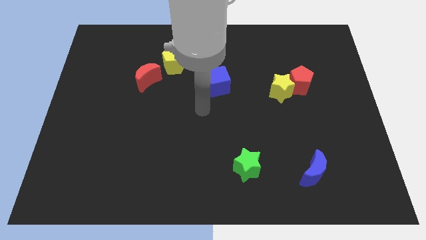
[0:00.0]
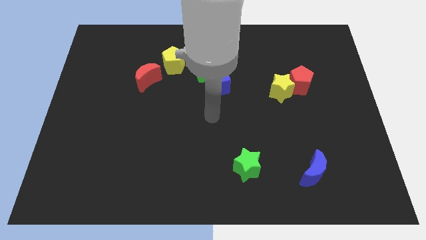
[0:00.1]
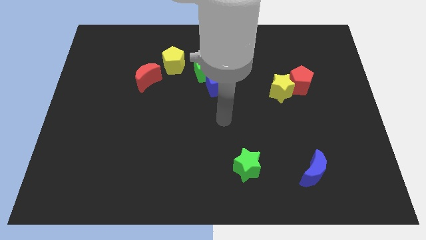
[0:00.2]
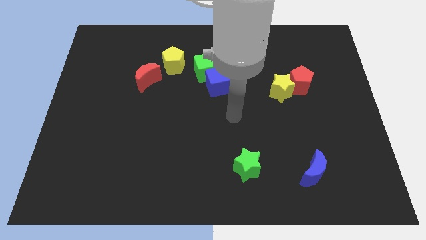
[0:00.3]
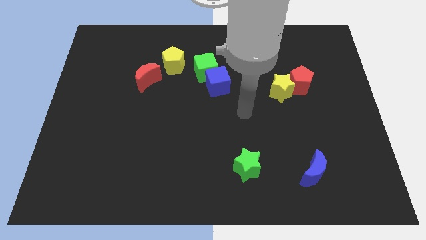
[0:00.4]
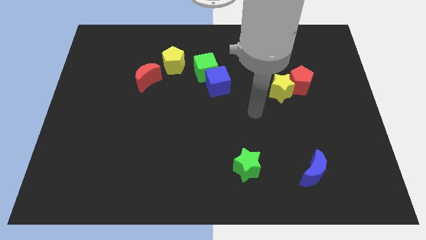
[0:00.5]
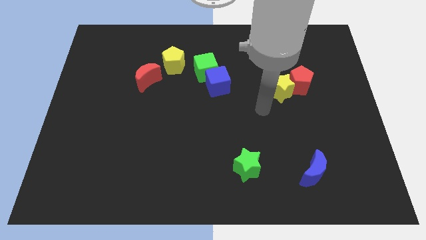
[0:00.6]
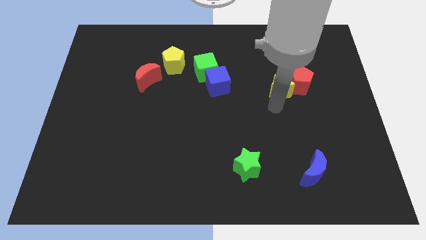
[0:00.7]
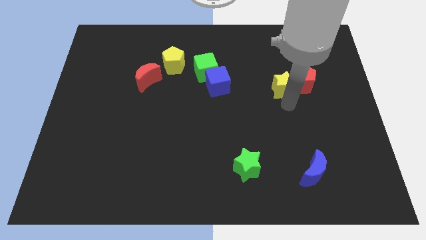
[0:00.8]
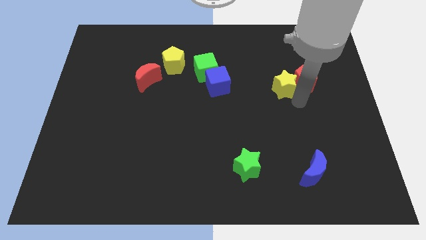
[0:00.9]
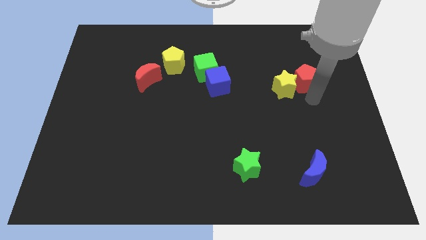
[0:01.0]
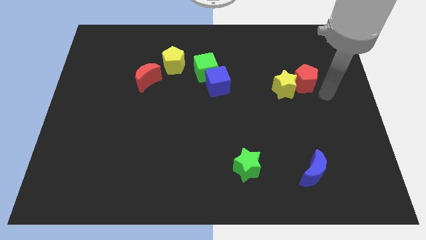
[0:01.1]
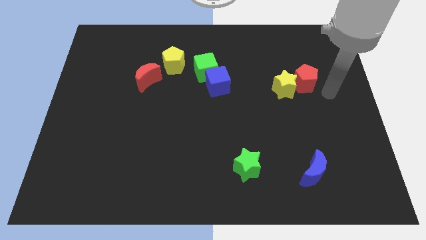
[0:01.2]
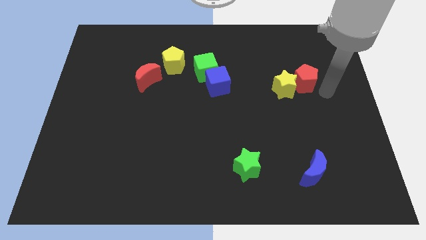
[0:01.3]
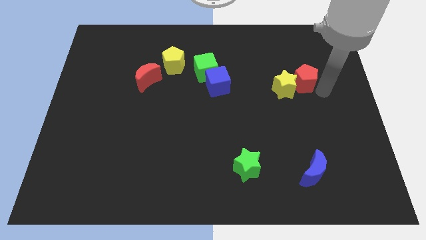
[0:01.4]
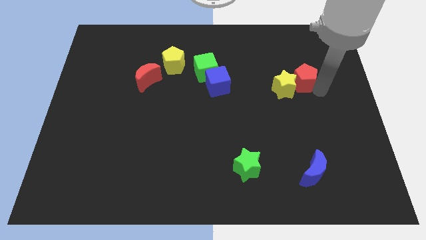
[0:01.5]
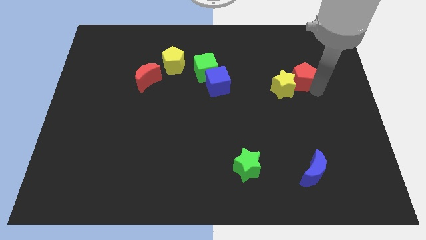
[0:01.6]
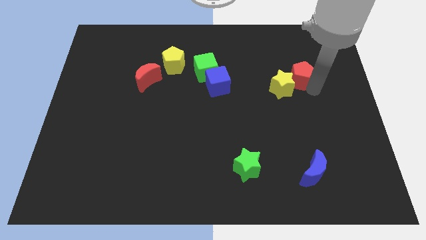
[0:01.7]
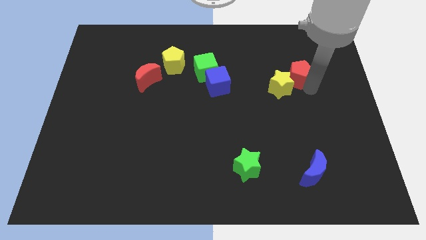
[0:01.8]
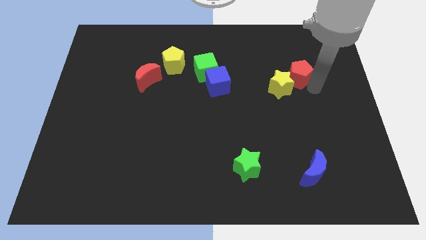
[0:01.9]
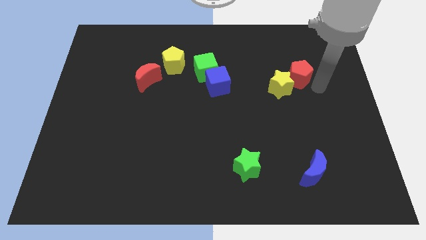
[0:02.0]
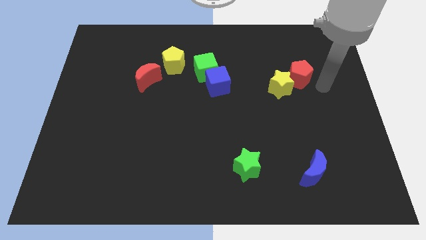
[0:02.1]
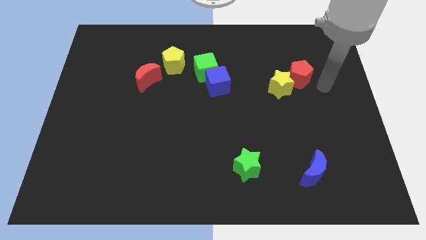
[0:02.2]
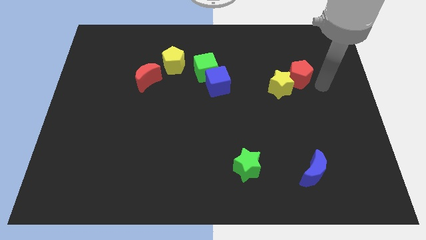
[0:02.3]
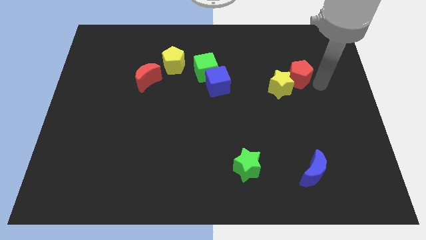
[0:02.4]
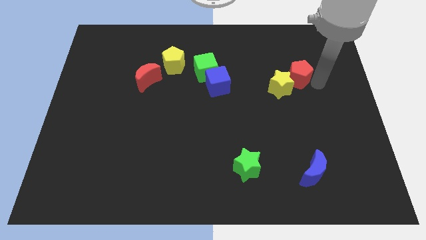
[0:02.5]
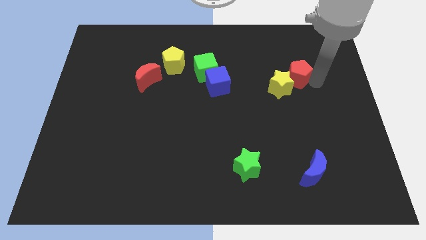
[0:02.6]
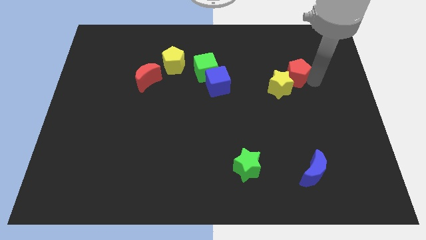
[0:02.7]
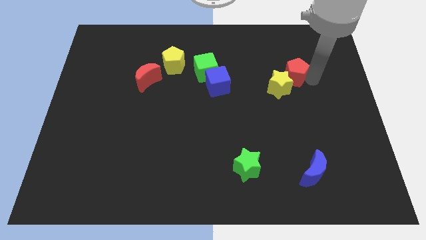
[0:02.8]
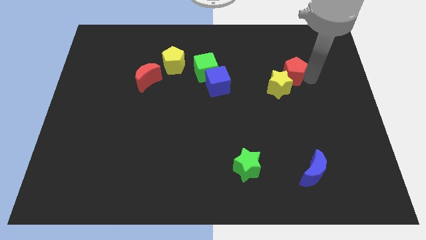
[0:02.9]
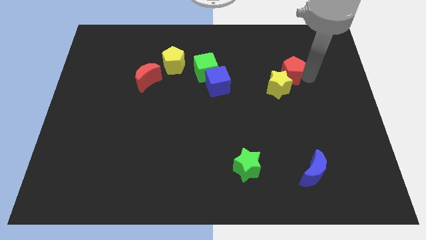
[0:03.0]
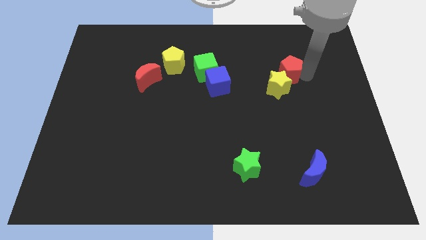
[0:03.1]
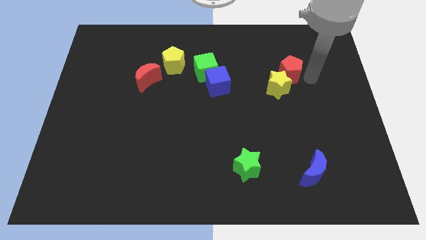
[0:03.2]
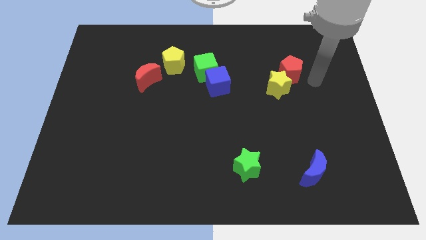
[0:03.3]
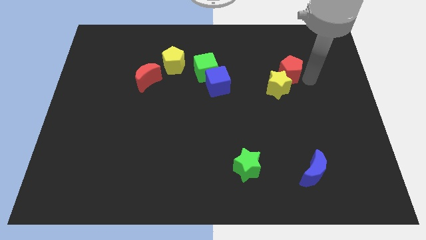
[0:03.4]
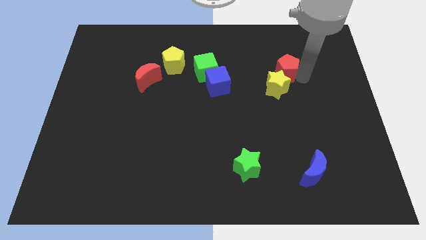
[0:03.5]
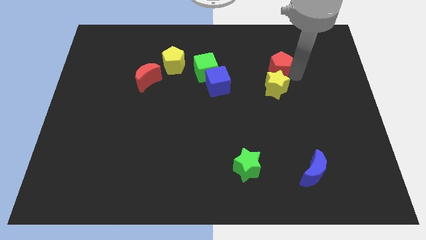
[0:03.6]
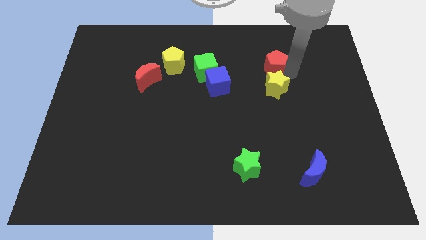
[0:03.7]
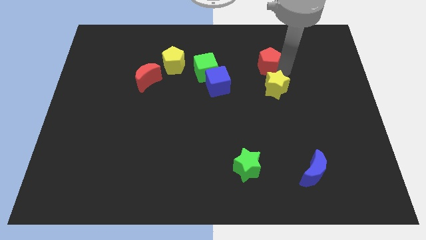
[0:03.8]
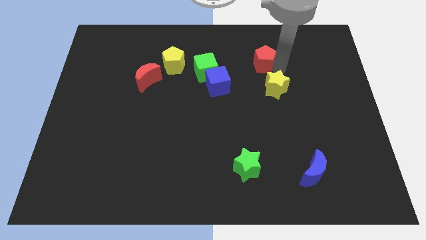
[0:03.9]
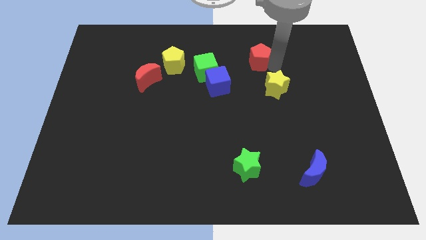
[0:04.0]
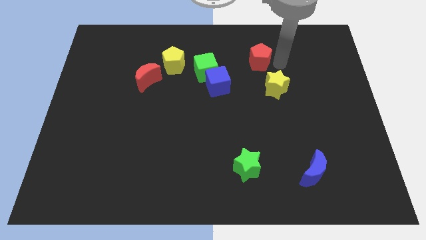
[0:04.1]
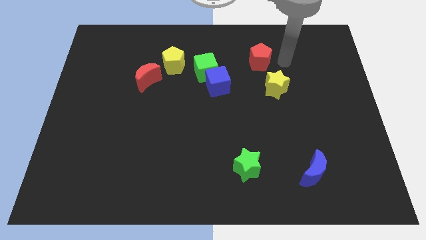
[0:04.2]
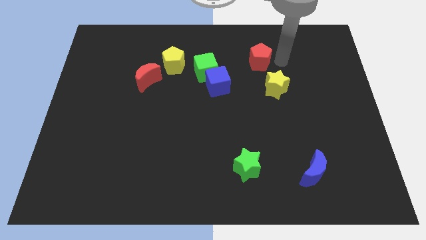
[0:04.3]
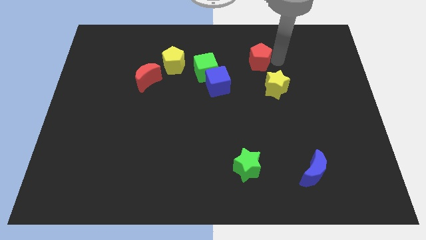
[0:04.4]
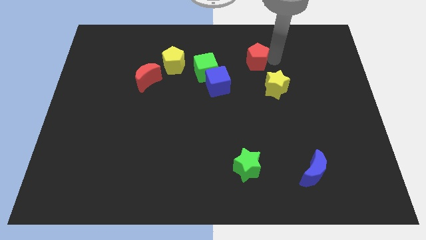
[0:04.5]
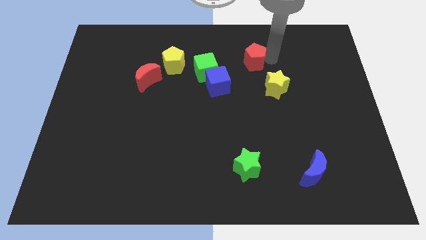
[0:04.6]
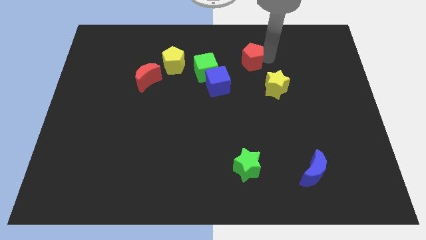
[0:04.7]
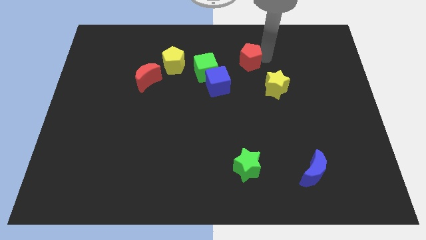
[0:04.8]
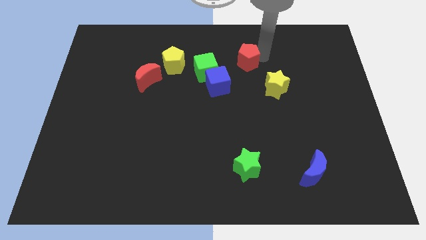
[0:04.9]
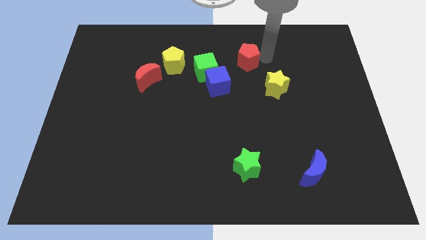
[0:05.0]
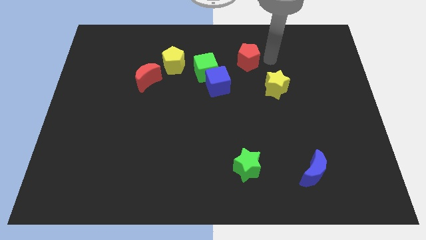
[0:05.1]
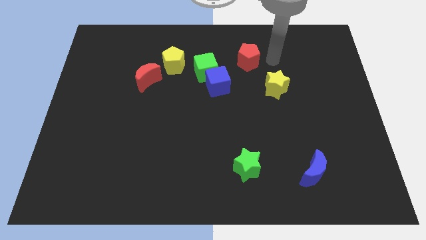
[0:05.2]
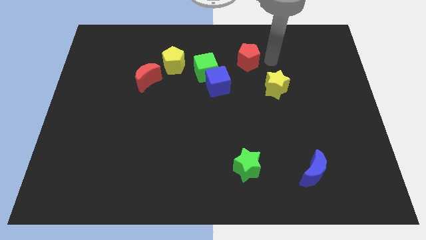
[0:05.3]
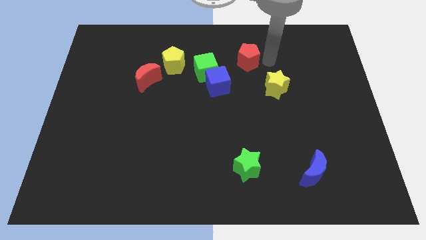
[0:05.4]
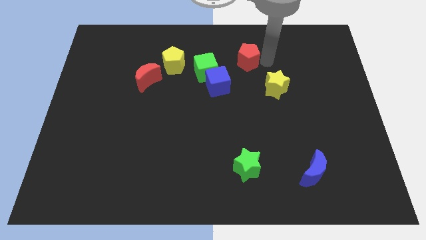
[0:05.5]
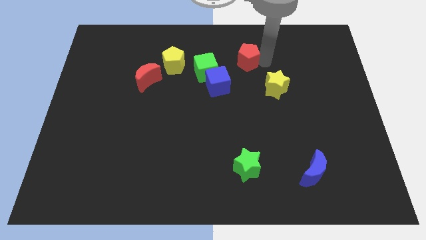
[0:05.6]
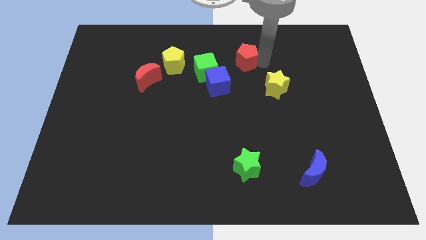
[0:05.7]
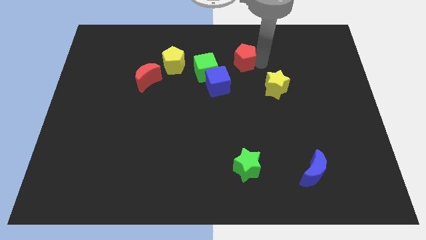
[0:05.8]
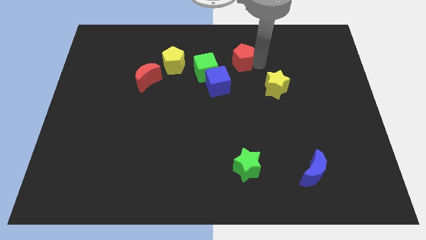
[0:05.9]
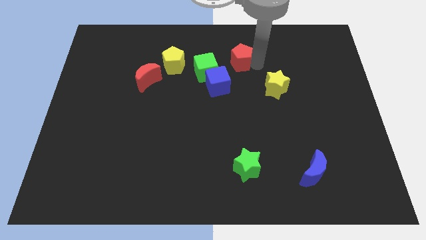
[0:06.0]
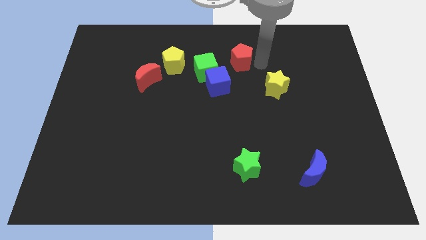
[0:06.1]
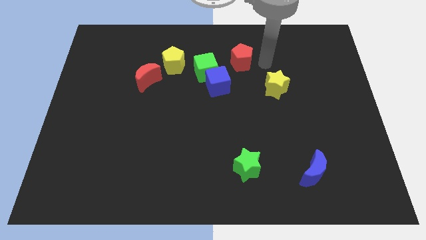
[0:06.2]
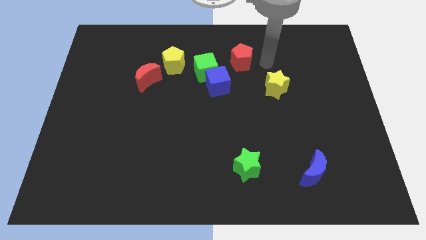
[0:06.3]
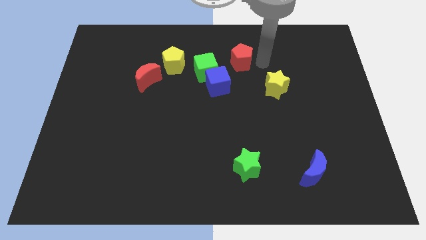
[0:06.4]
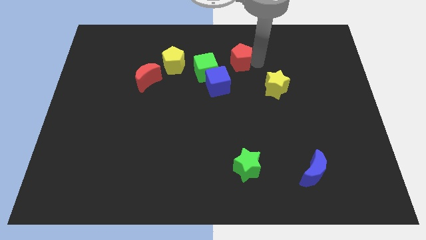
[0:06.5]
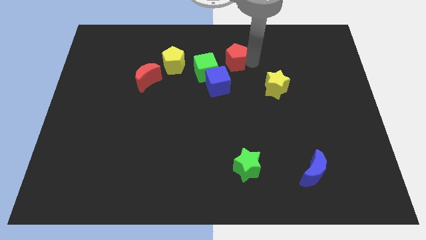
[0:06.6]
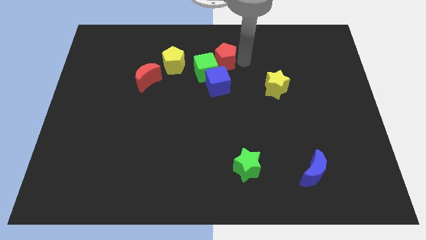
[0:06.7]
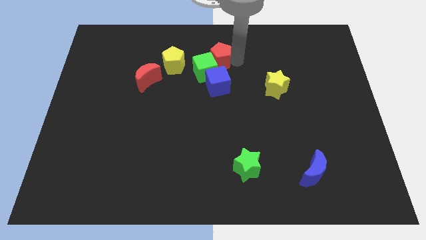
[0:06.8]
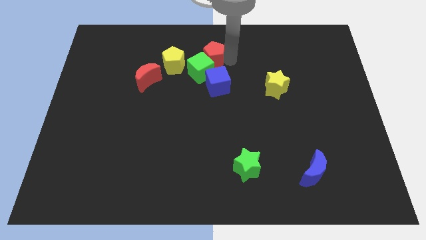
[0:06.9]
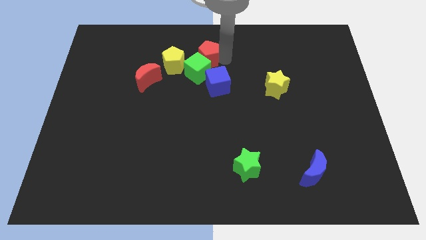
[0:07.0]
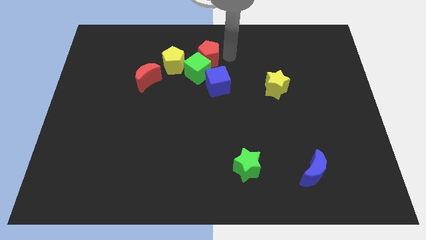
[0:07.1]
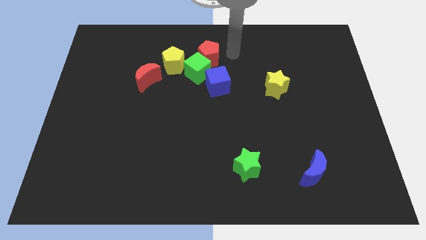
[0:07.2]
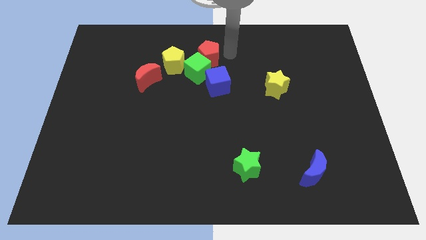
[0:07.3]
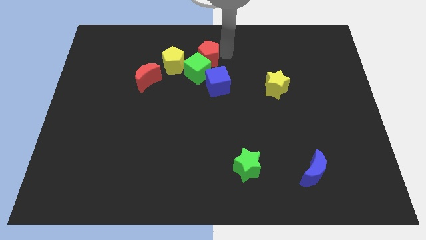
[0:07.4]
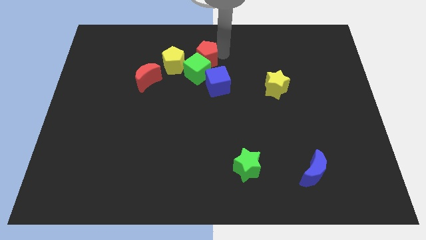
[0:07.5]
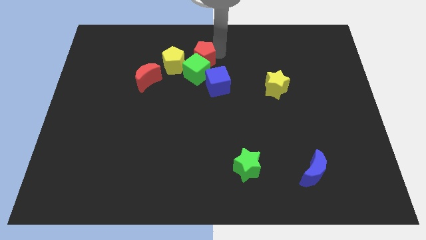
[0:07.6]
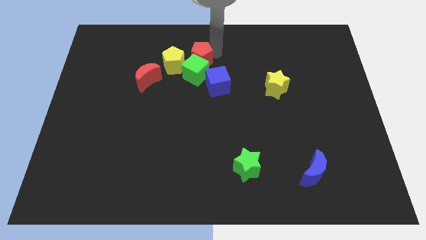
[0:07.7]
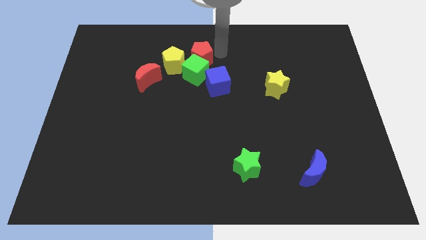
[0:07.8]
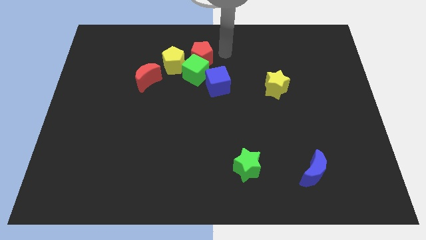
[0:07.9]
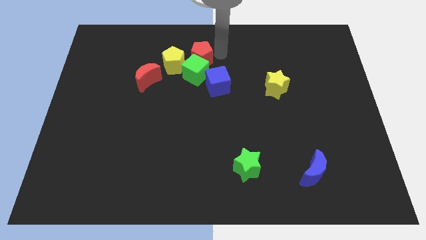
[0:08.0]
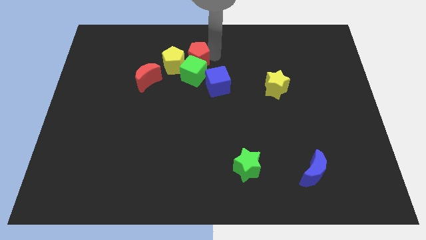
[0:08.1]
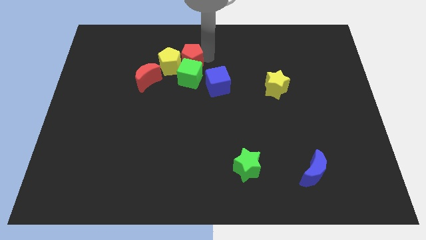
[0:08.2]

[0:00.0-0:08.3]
slide the red pentagon next to the yellow pentagon
